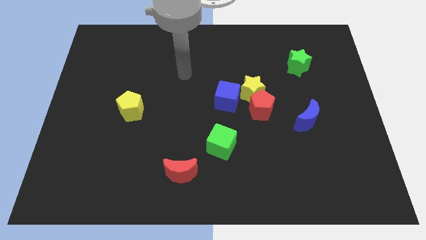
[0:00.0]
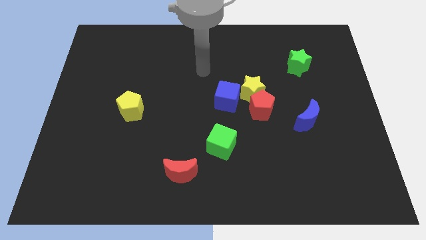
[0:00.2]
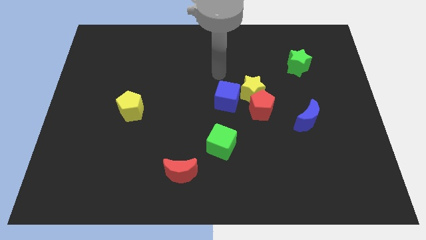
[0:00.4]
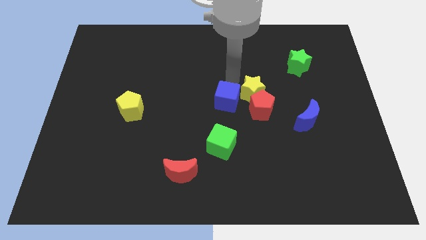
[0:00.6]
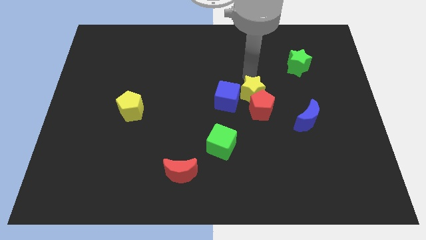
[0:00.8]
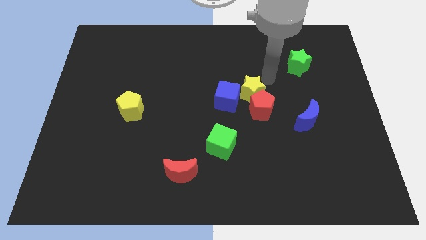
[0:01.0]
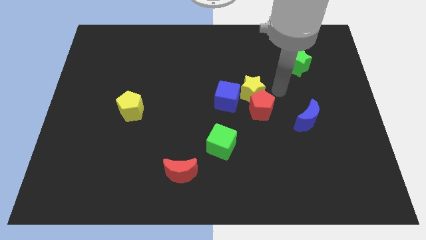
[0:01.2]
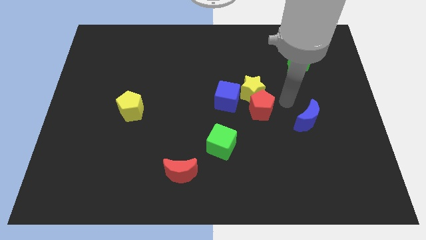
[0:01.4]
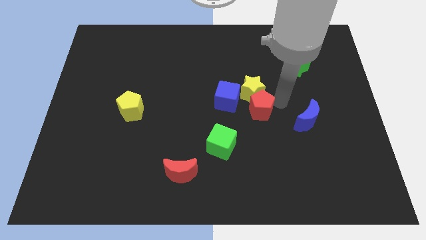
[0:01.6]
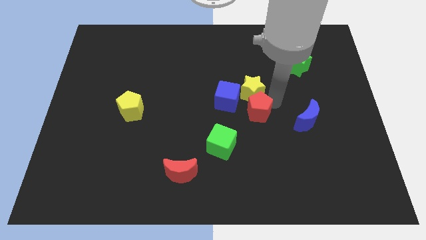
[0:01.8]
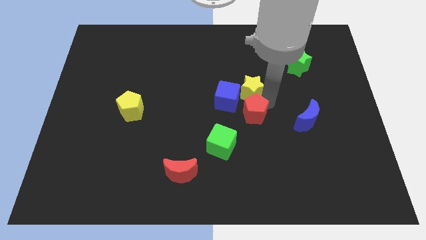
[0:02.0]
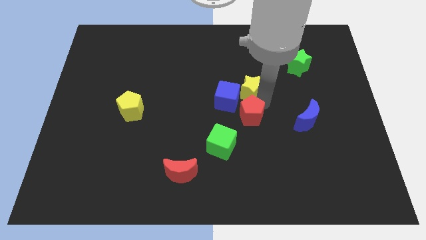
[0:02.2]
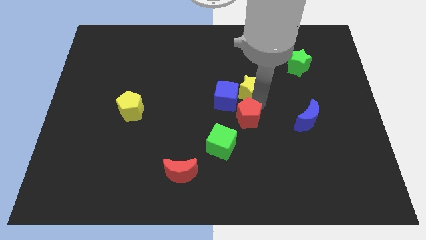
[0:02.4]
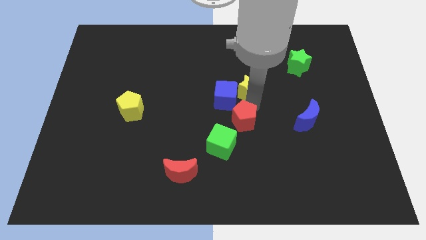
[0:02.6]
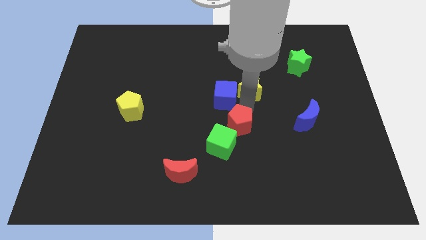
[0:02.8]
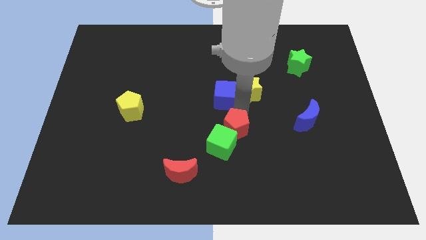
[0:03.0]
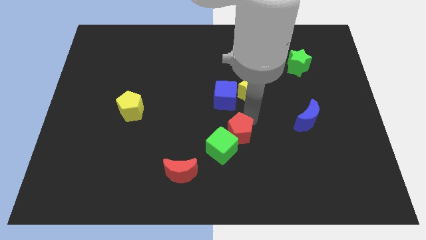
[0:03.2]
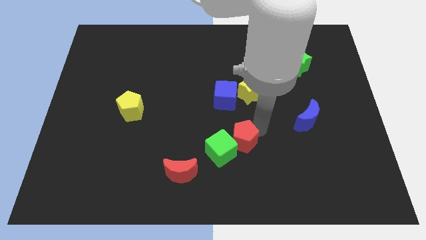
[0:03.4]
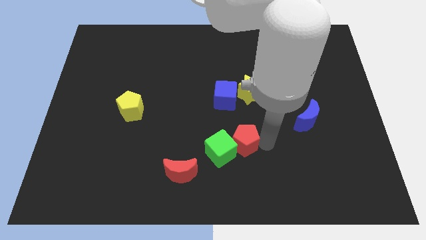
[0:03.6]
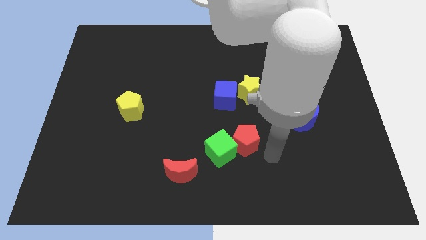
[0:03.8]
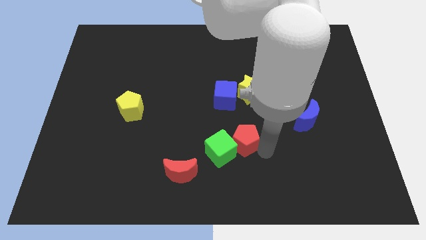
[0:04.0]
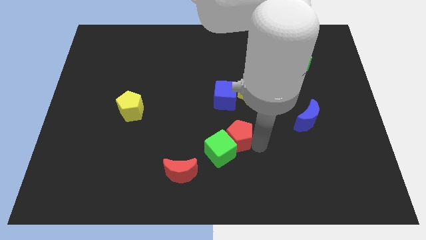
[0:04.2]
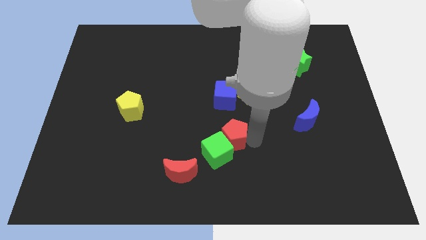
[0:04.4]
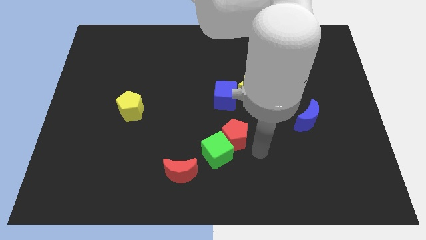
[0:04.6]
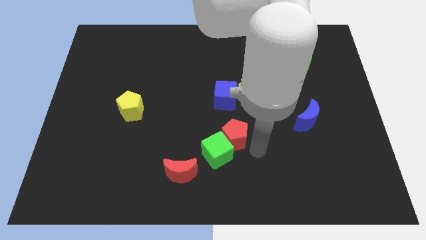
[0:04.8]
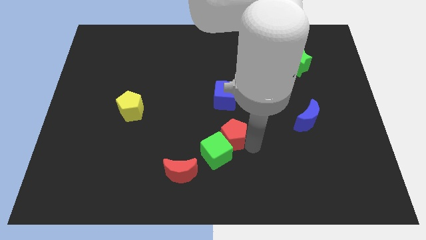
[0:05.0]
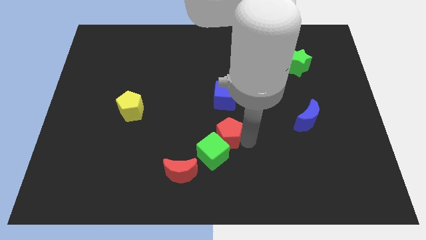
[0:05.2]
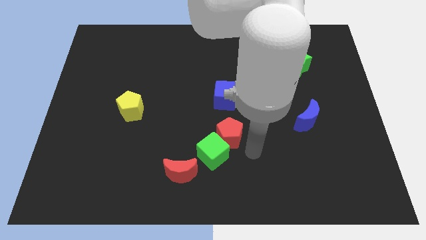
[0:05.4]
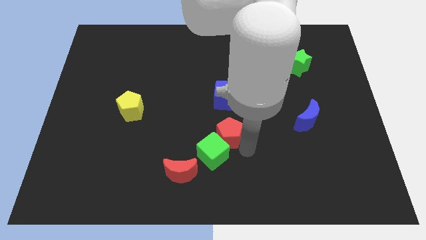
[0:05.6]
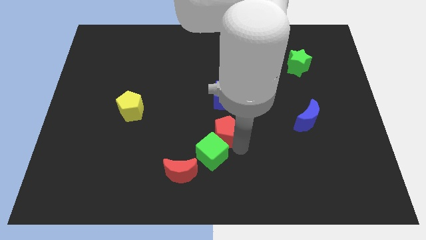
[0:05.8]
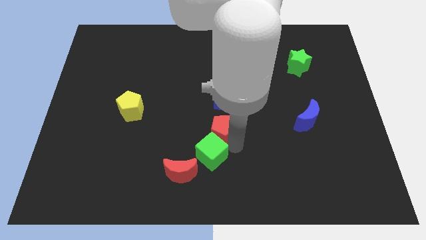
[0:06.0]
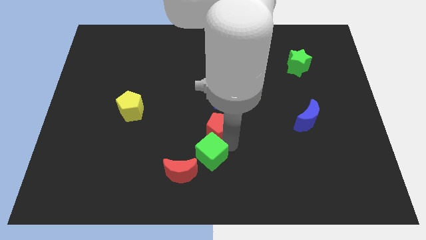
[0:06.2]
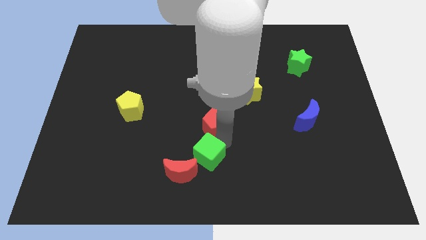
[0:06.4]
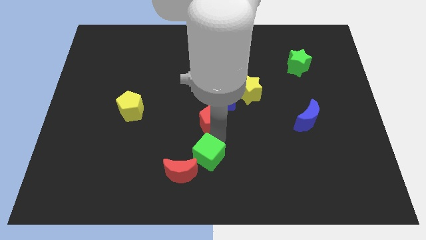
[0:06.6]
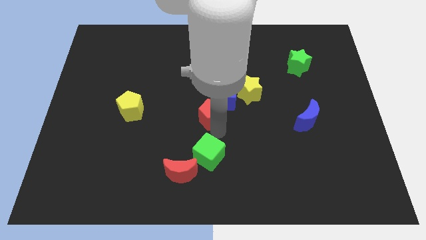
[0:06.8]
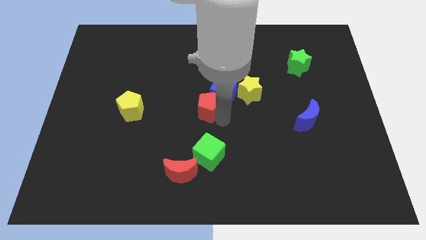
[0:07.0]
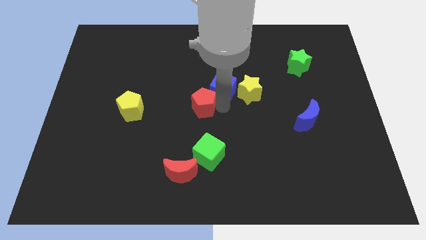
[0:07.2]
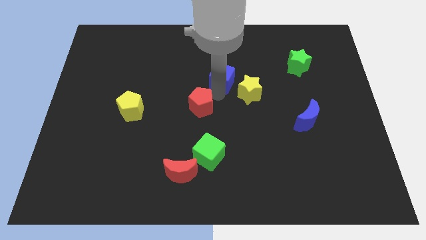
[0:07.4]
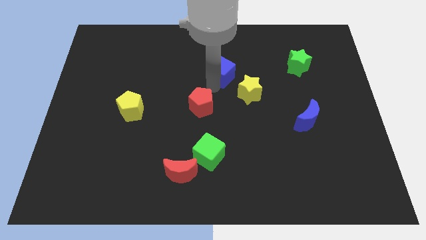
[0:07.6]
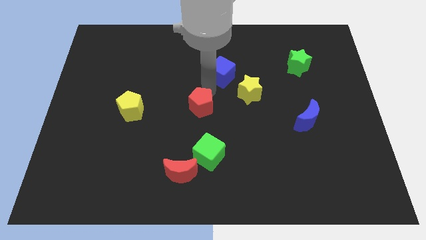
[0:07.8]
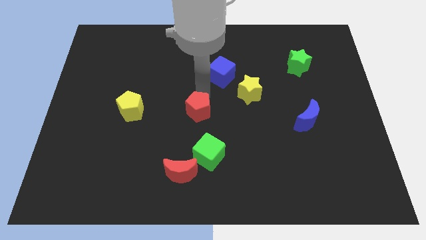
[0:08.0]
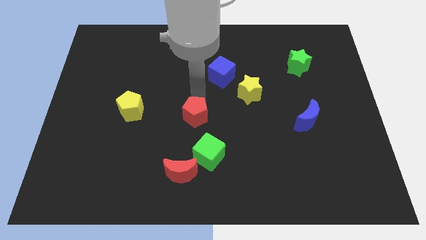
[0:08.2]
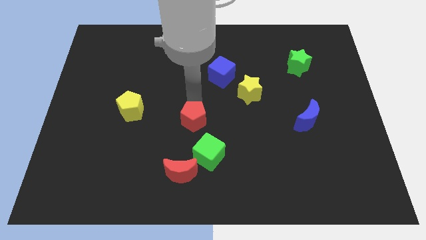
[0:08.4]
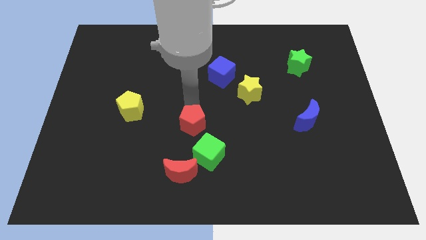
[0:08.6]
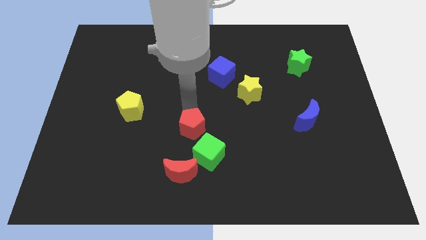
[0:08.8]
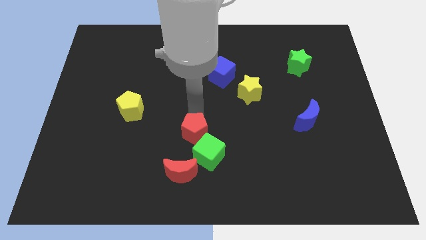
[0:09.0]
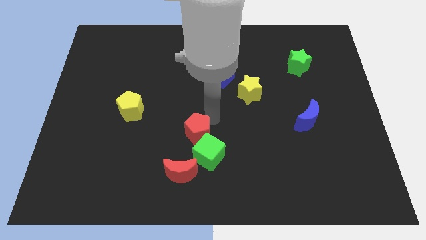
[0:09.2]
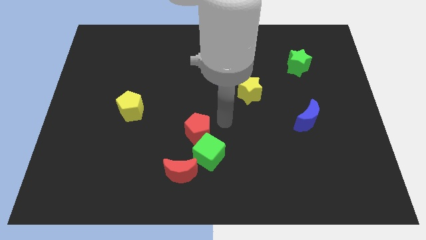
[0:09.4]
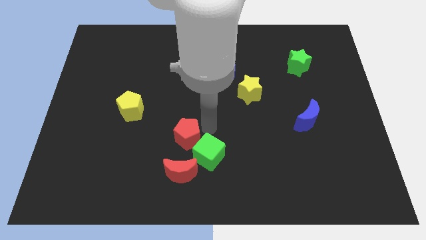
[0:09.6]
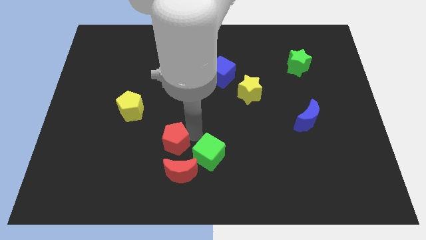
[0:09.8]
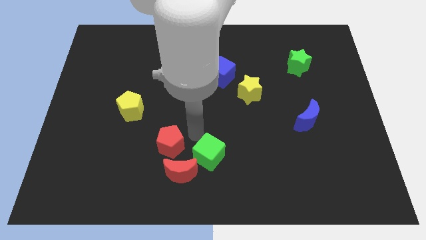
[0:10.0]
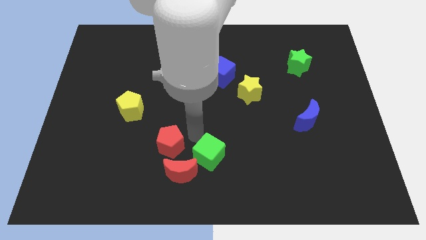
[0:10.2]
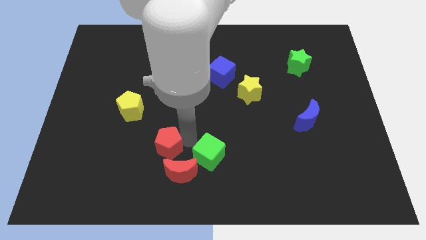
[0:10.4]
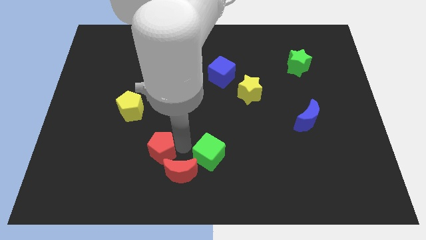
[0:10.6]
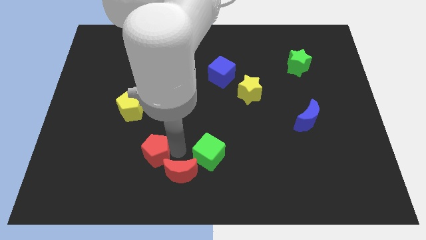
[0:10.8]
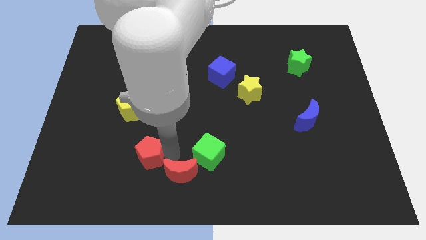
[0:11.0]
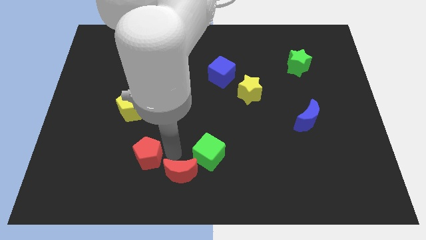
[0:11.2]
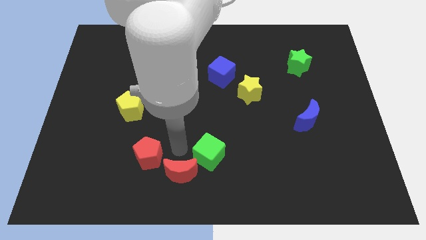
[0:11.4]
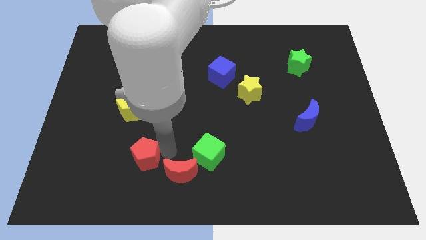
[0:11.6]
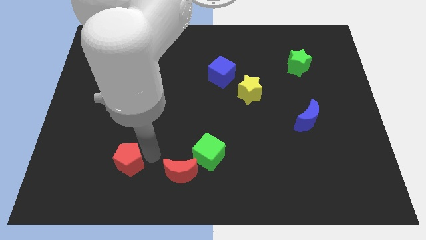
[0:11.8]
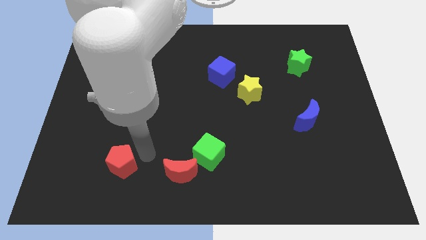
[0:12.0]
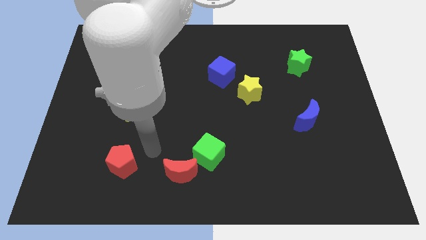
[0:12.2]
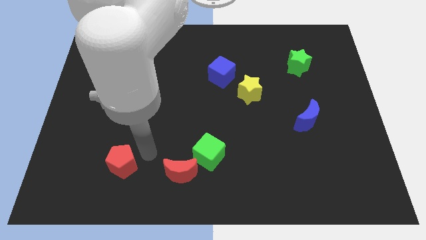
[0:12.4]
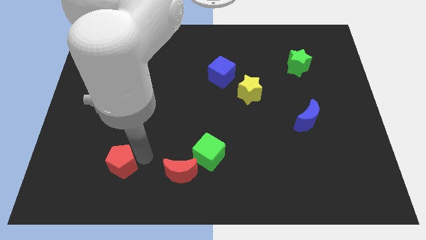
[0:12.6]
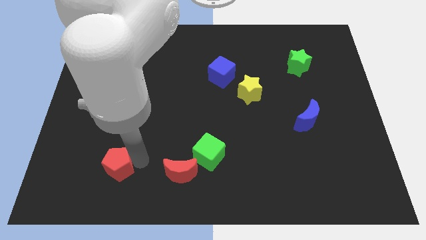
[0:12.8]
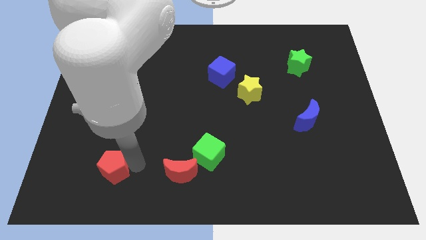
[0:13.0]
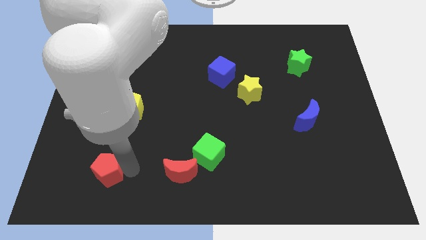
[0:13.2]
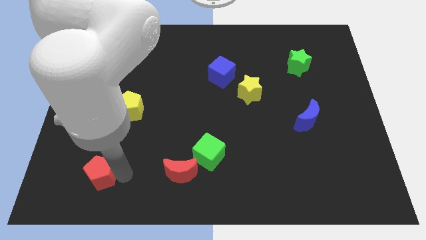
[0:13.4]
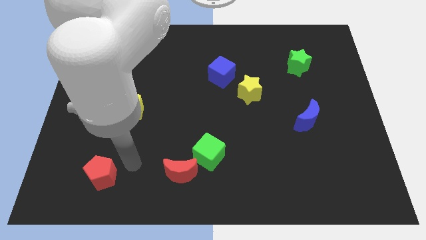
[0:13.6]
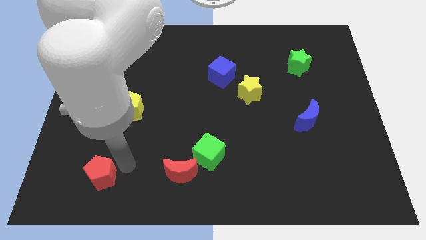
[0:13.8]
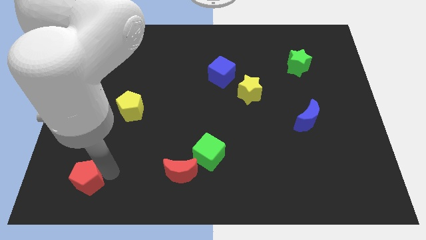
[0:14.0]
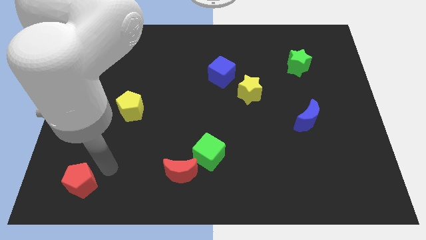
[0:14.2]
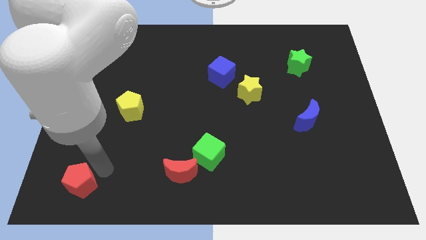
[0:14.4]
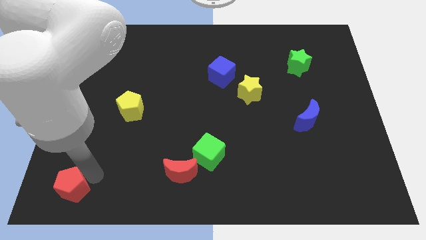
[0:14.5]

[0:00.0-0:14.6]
move the red pentagon to the bottom left corner
